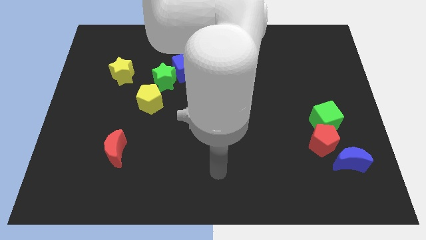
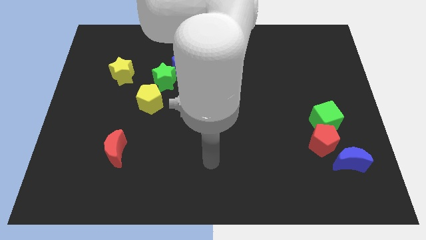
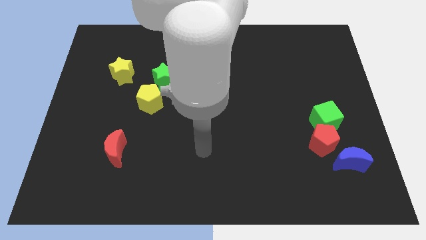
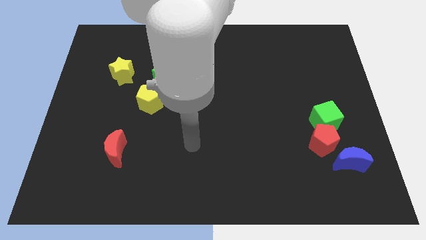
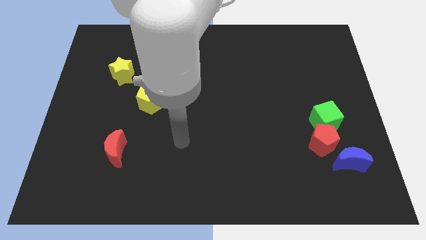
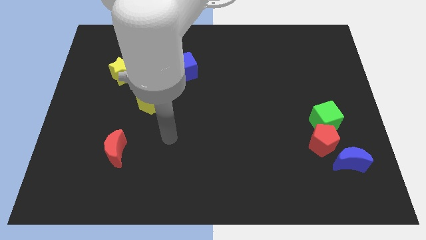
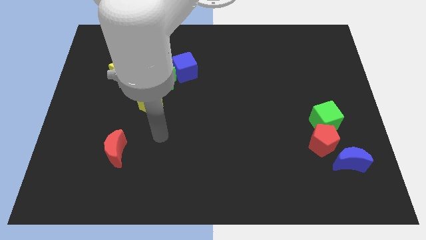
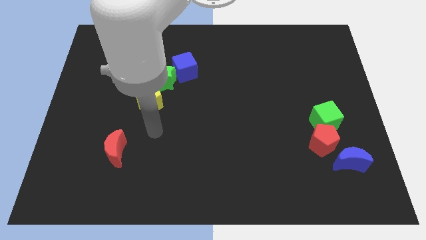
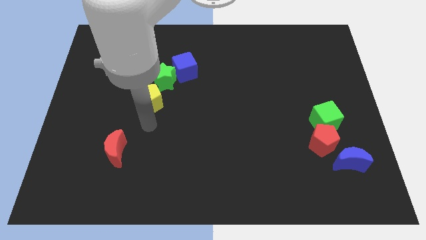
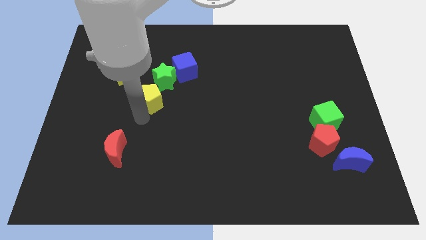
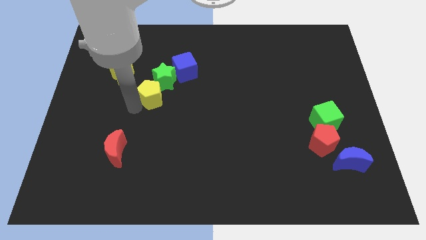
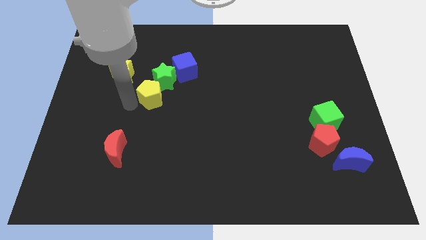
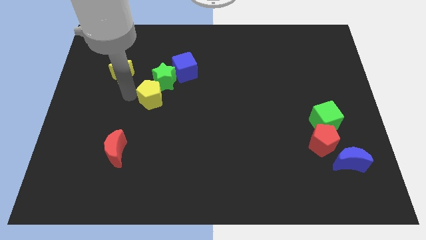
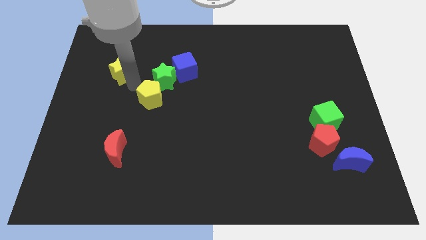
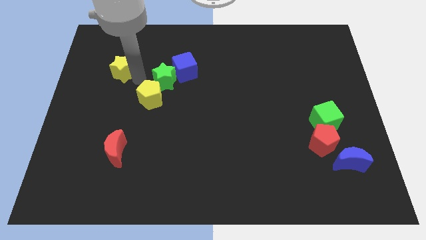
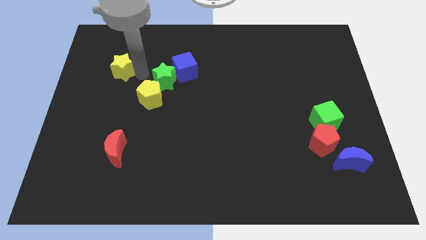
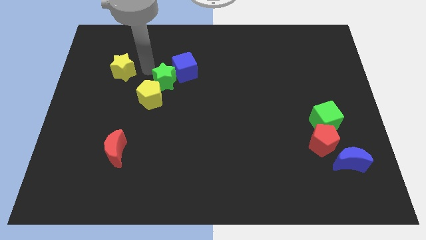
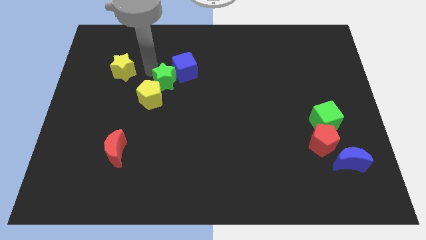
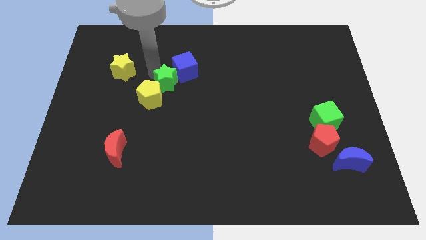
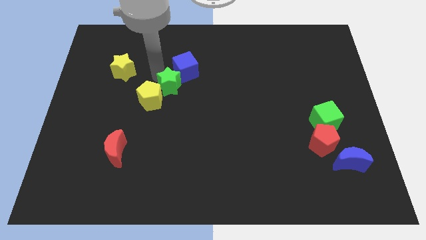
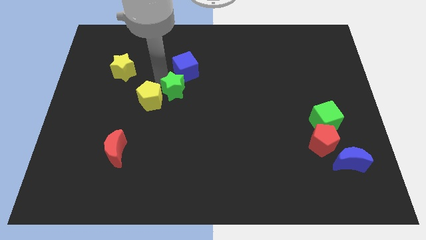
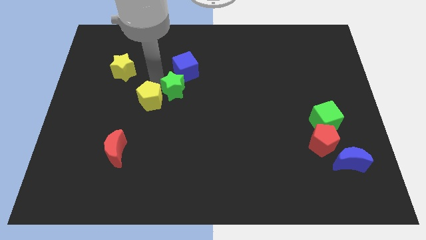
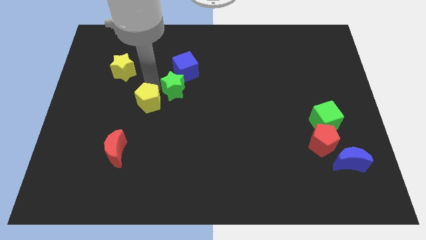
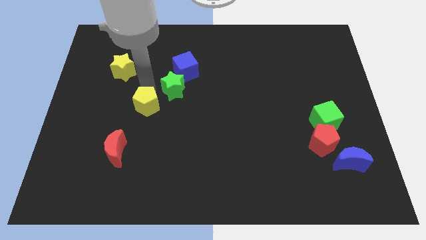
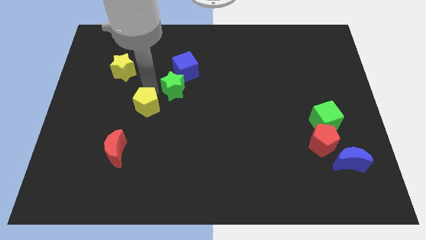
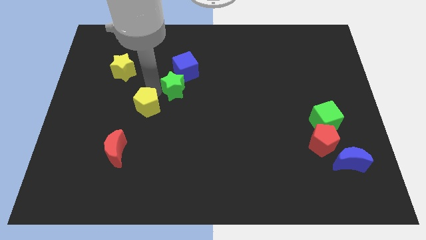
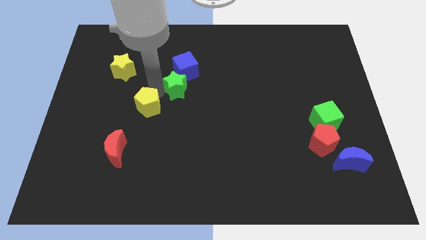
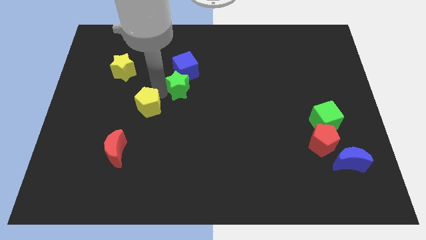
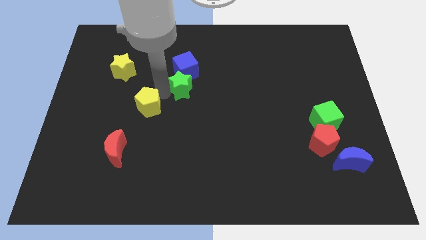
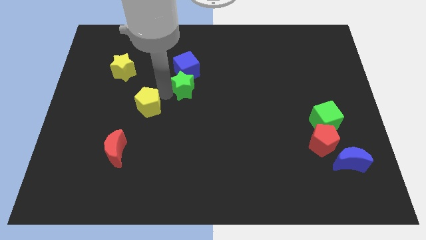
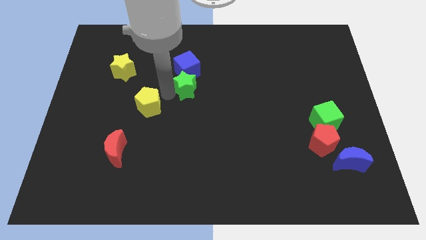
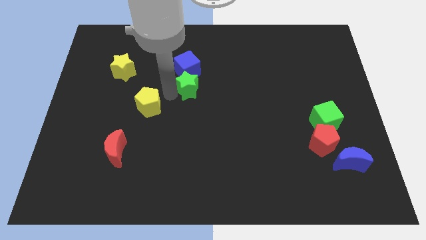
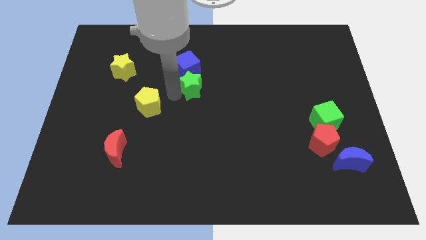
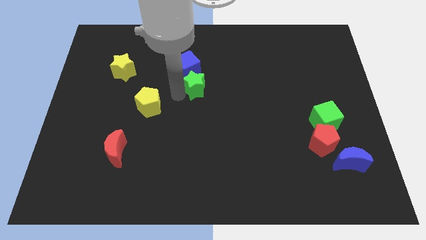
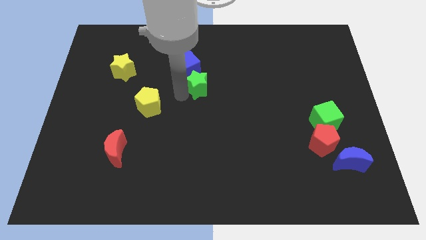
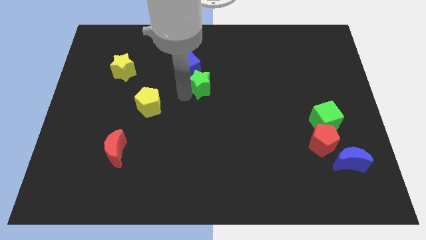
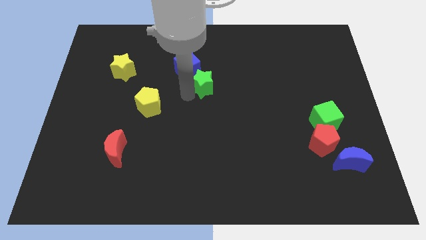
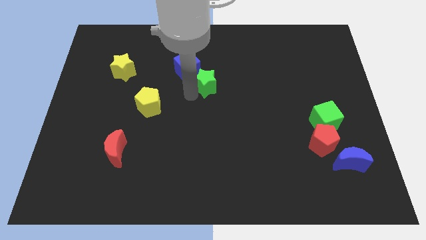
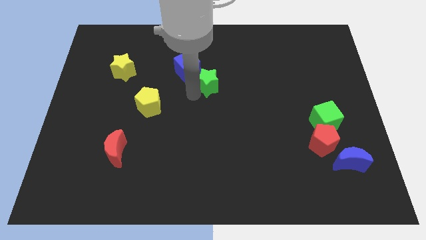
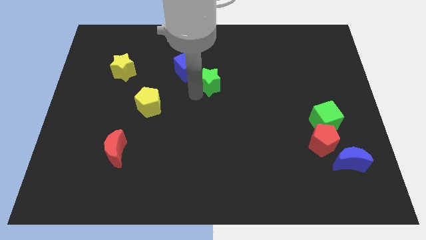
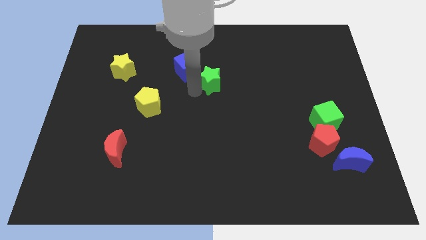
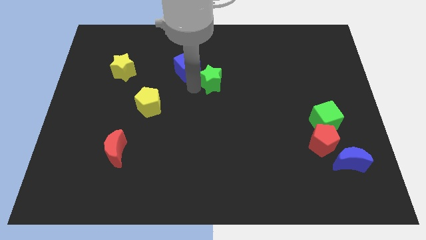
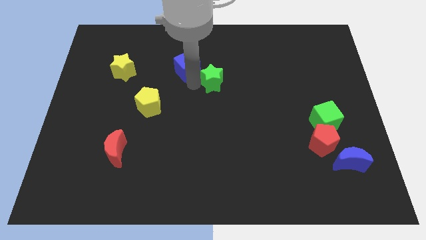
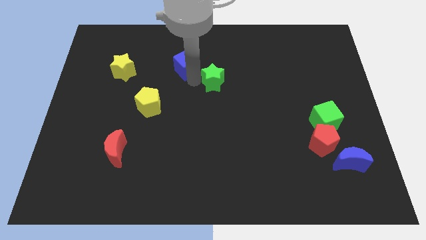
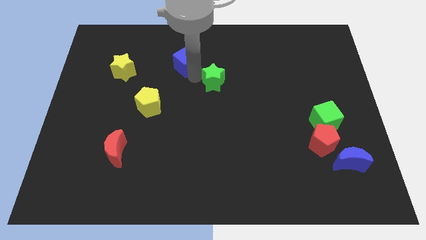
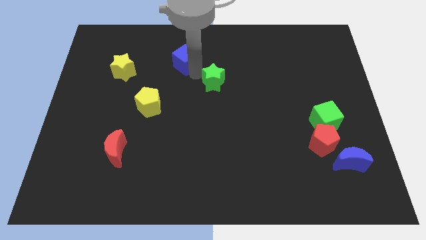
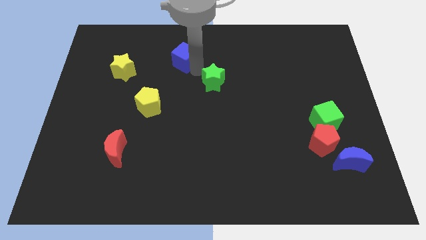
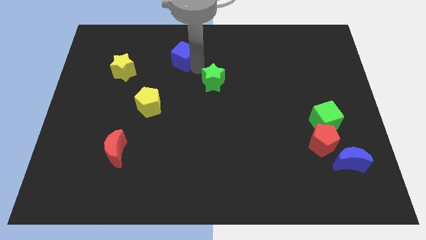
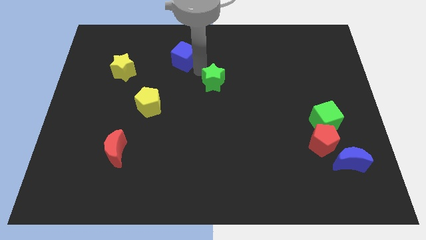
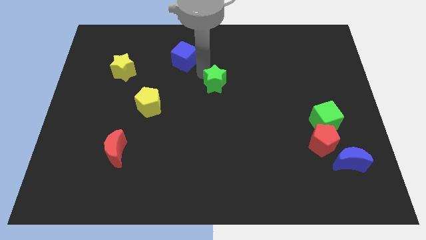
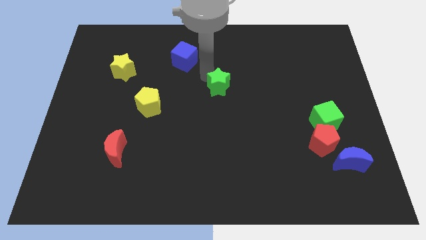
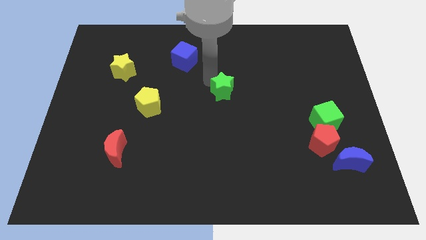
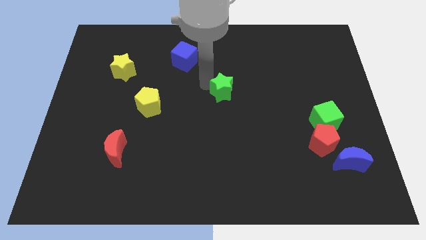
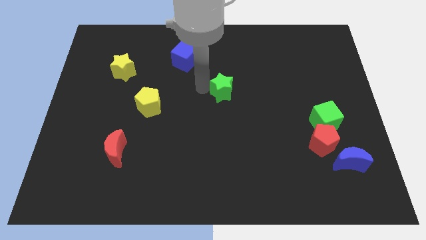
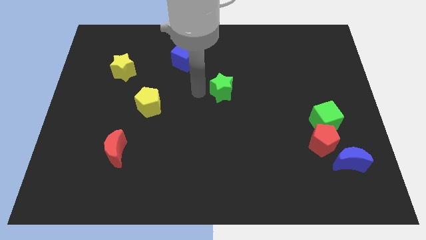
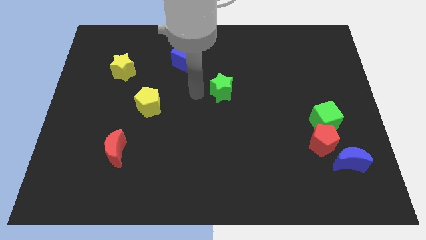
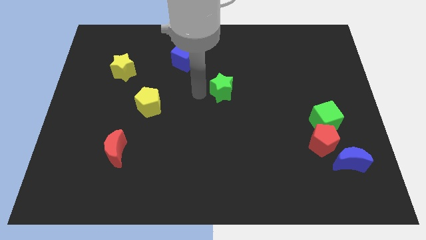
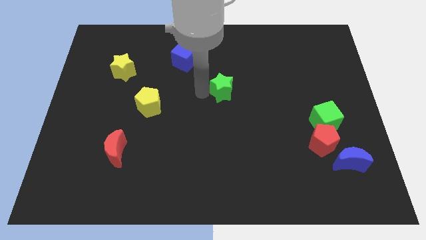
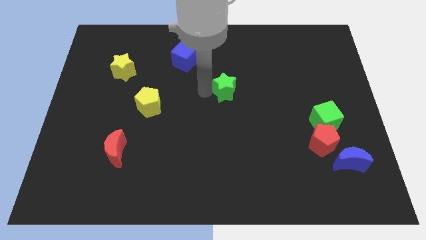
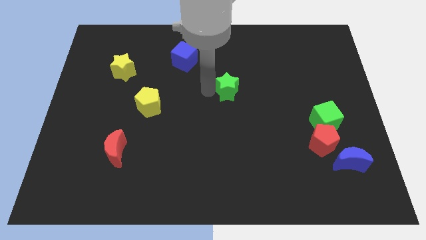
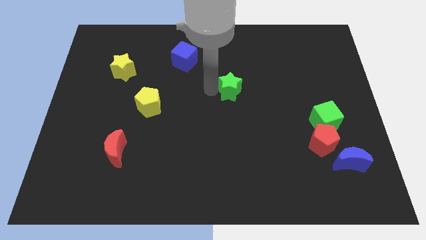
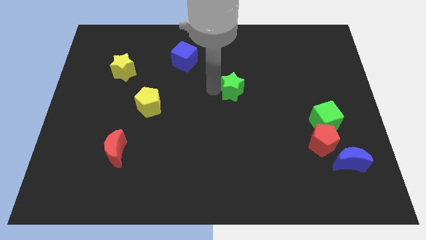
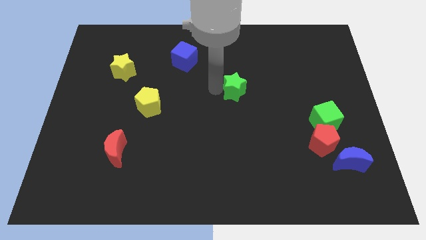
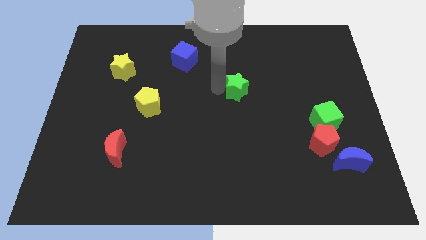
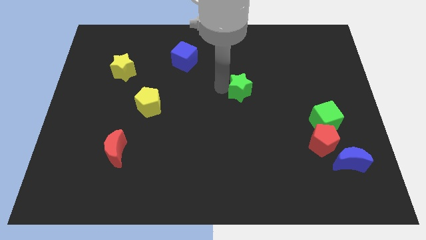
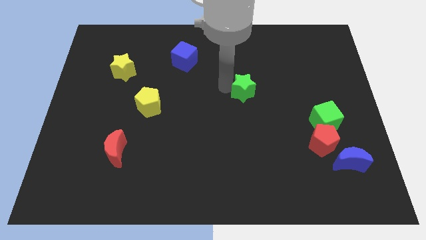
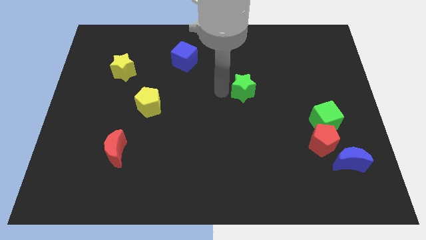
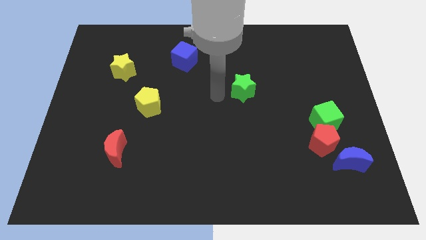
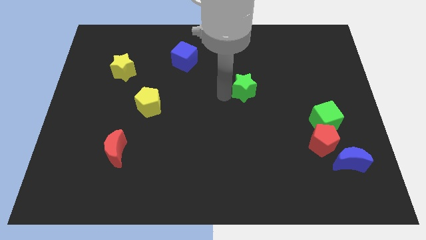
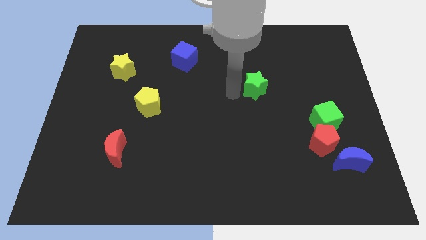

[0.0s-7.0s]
push the green star to the right

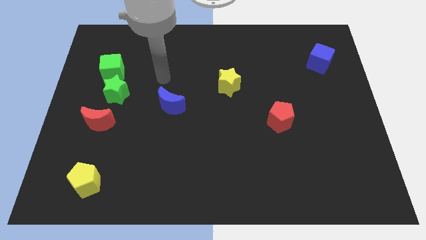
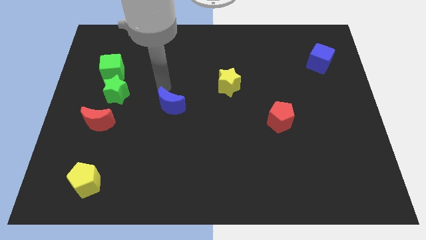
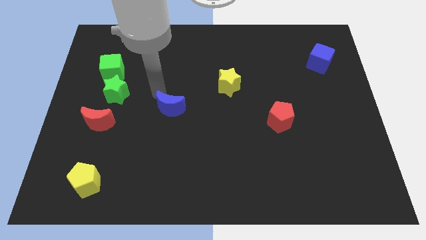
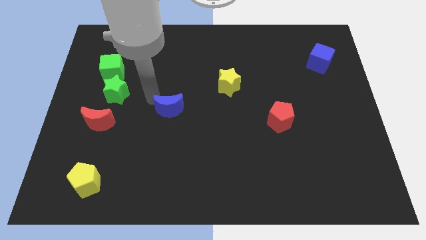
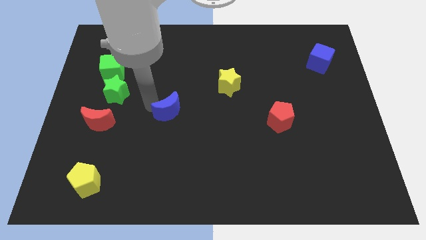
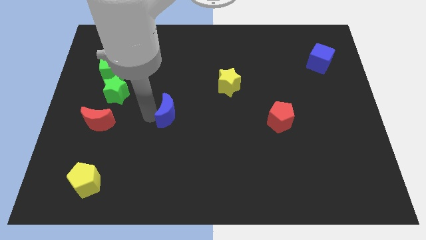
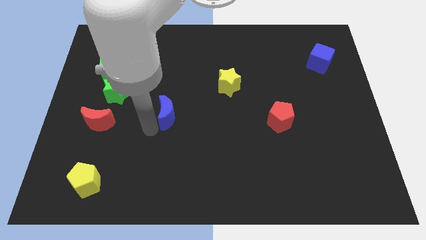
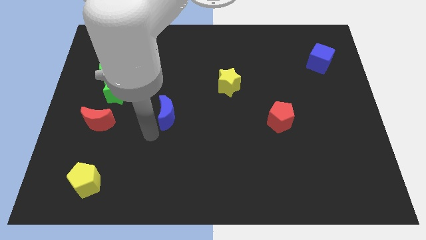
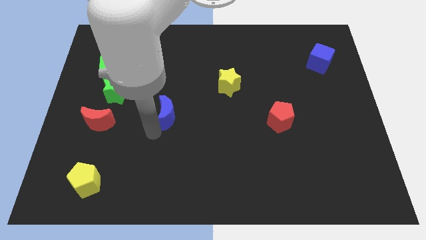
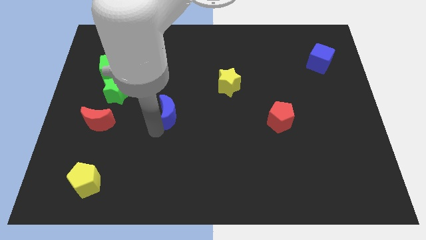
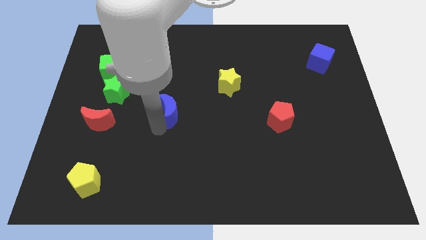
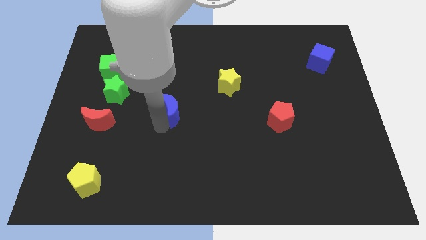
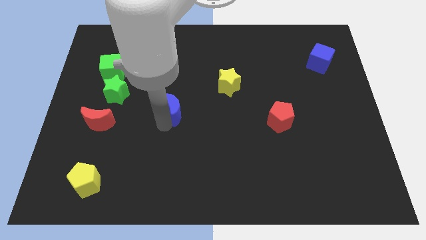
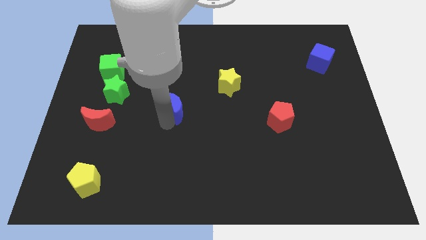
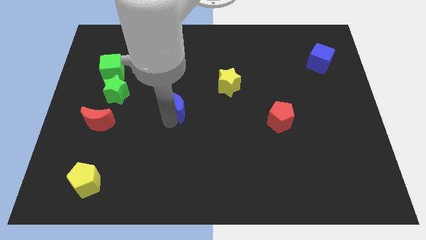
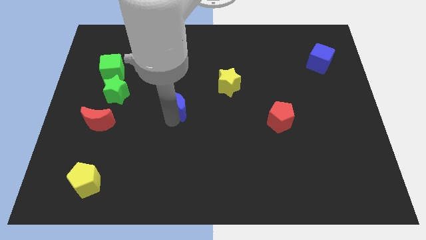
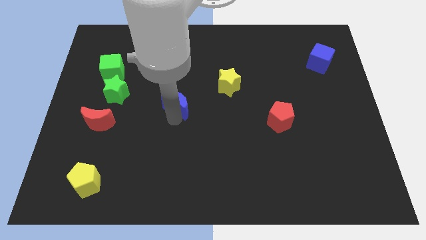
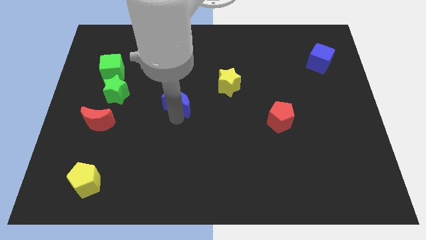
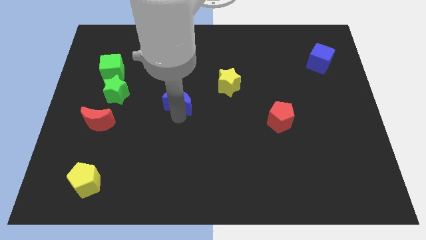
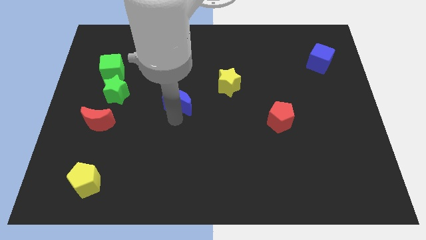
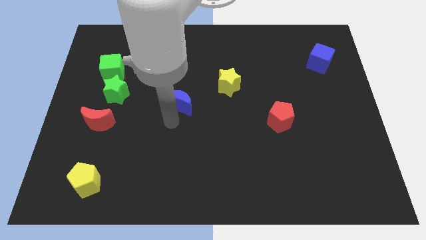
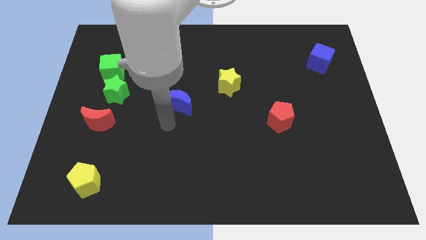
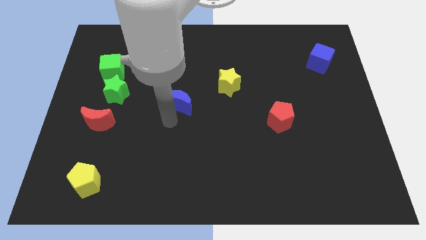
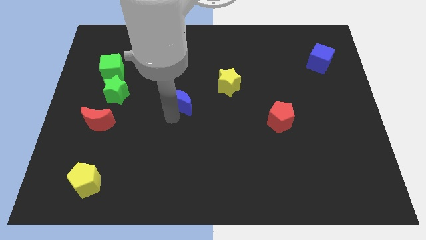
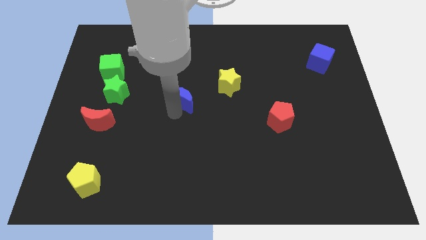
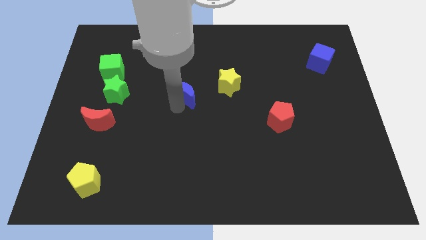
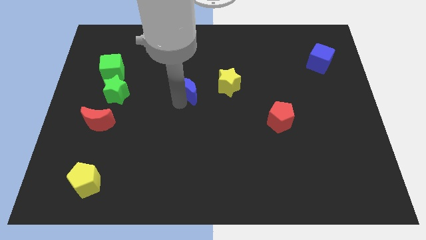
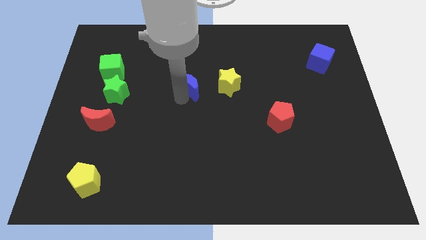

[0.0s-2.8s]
slide the blue moon somewhat upwards and right diagonally
